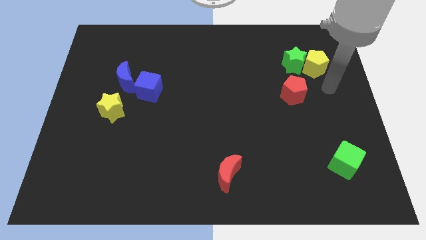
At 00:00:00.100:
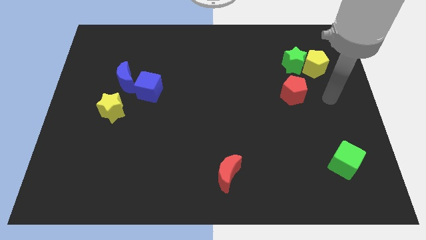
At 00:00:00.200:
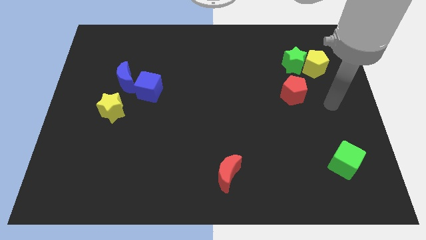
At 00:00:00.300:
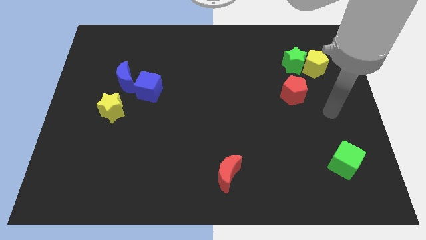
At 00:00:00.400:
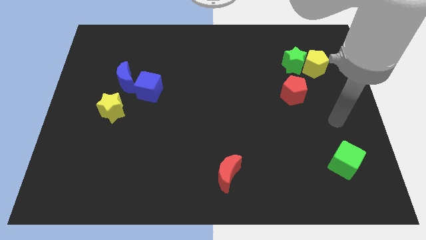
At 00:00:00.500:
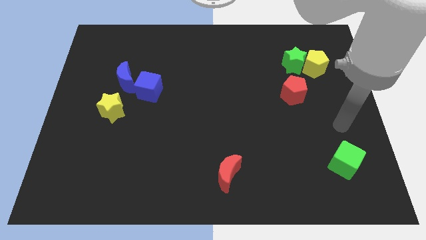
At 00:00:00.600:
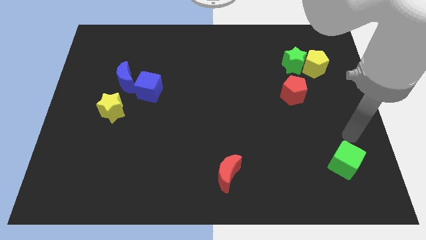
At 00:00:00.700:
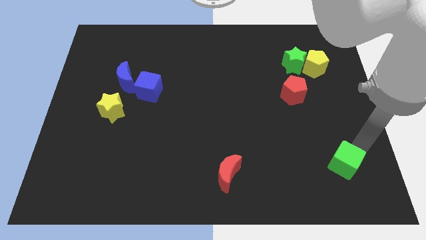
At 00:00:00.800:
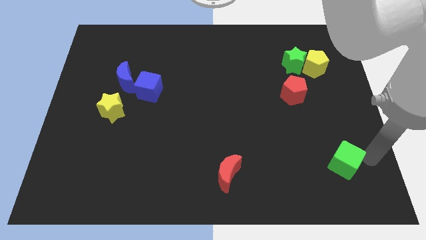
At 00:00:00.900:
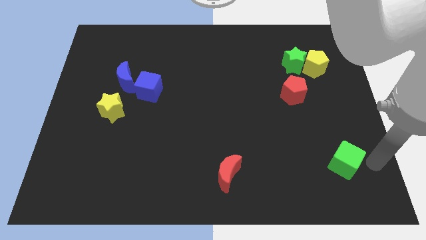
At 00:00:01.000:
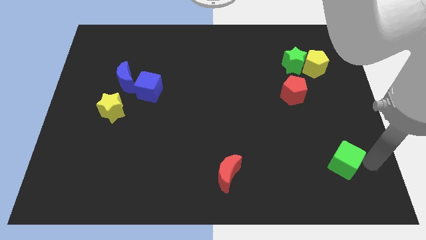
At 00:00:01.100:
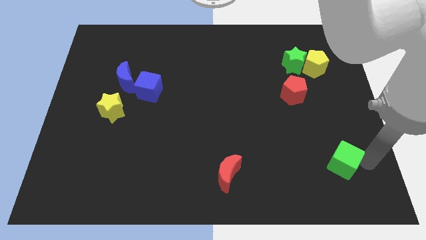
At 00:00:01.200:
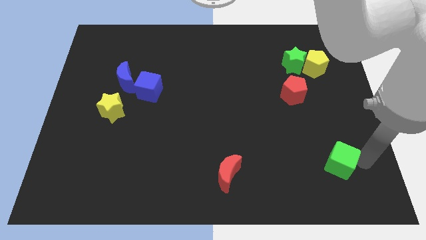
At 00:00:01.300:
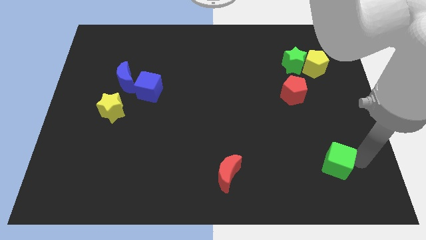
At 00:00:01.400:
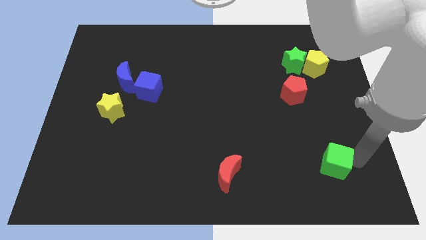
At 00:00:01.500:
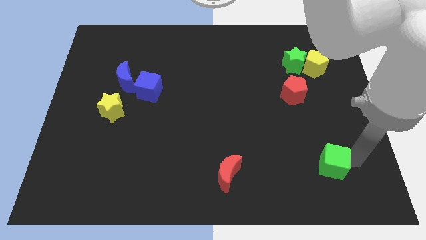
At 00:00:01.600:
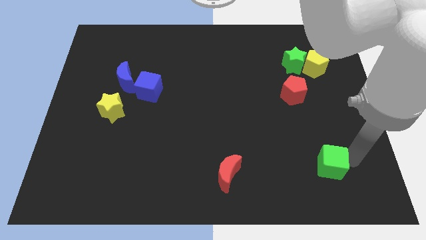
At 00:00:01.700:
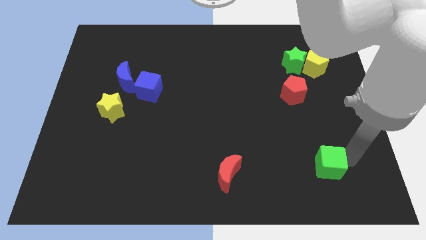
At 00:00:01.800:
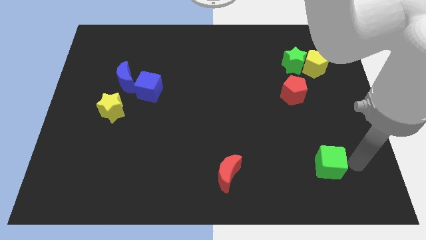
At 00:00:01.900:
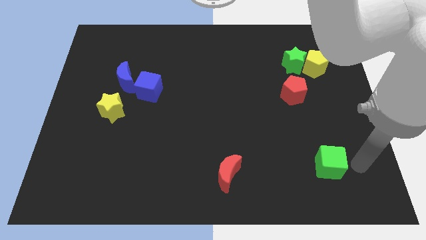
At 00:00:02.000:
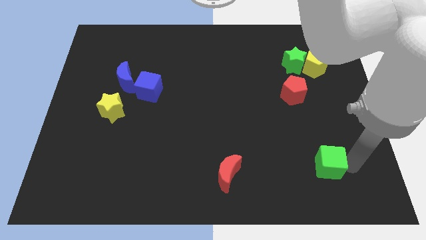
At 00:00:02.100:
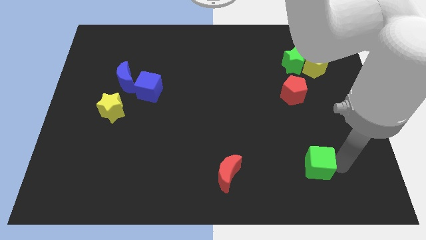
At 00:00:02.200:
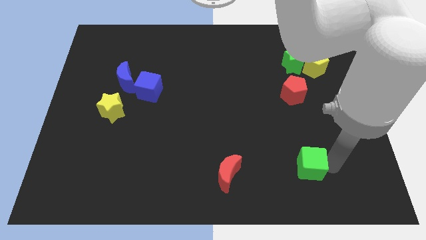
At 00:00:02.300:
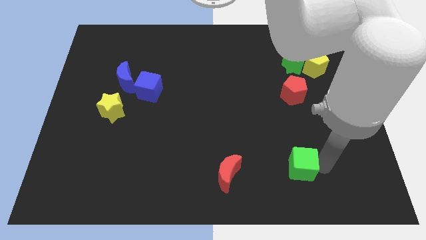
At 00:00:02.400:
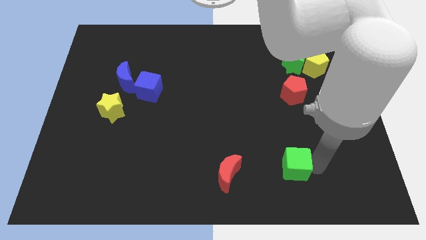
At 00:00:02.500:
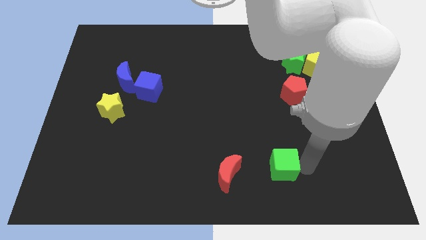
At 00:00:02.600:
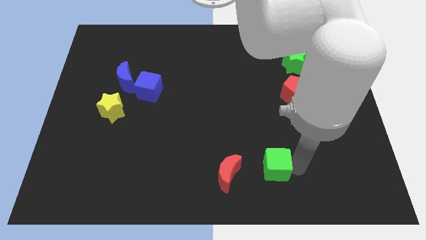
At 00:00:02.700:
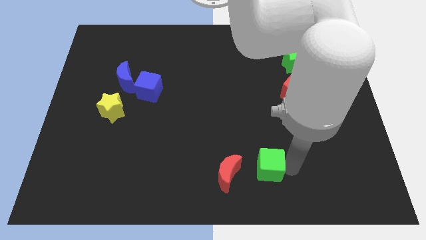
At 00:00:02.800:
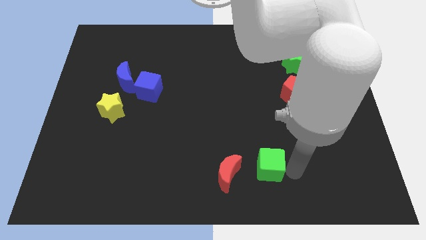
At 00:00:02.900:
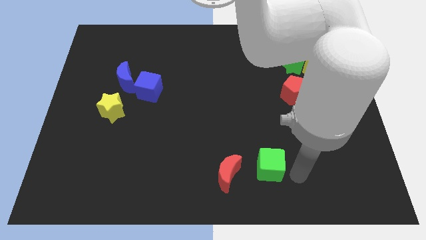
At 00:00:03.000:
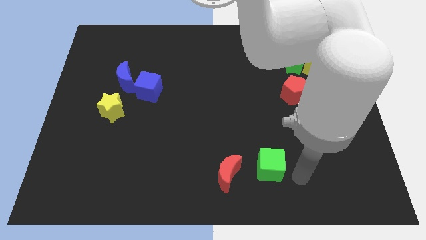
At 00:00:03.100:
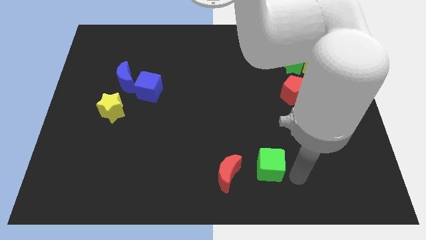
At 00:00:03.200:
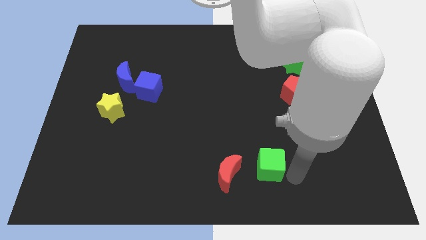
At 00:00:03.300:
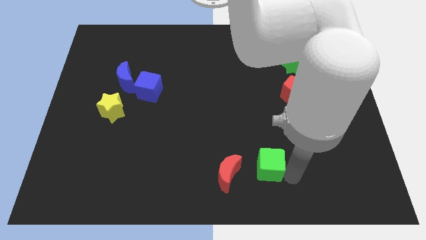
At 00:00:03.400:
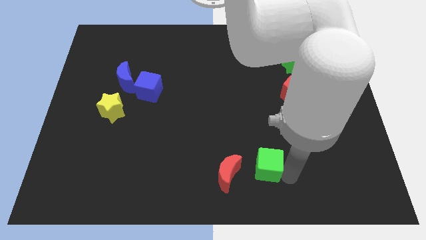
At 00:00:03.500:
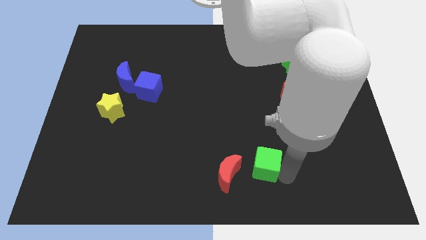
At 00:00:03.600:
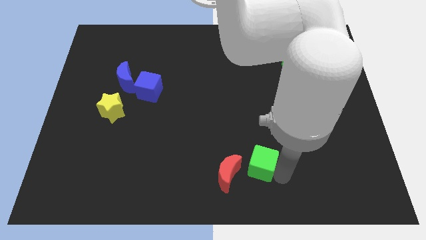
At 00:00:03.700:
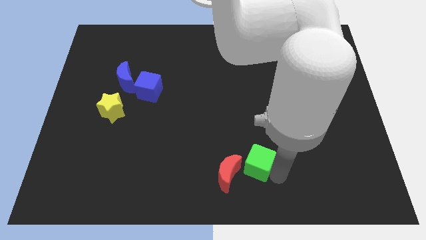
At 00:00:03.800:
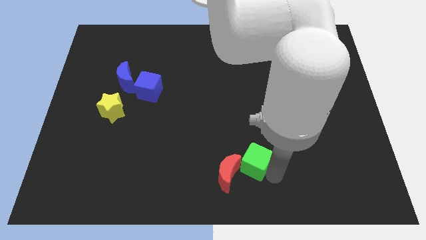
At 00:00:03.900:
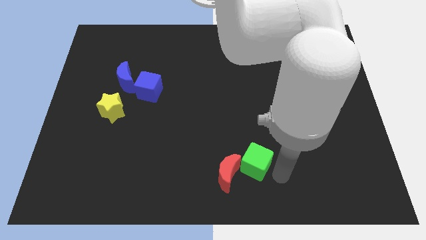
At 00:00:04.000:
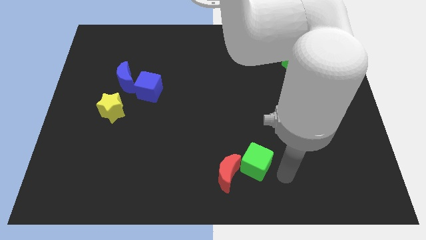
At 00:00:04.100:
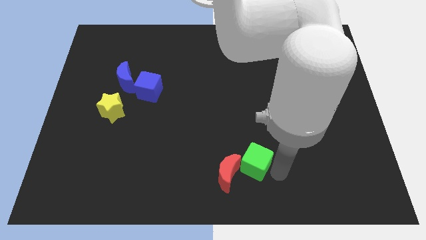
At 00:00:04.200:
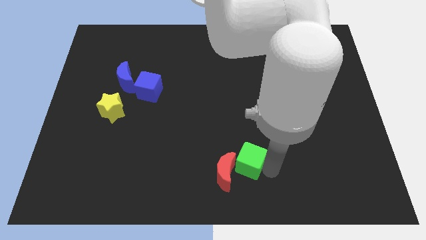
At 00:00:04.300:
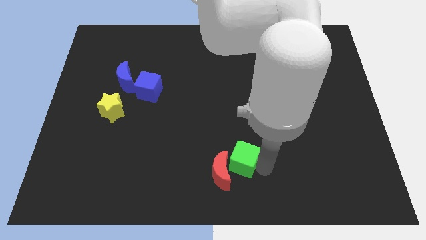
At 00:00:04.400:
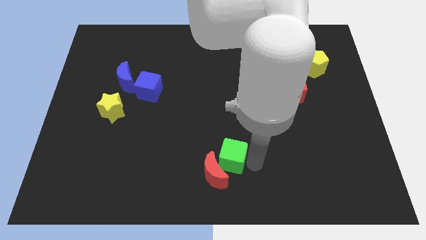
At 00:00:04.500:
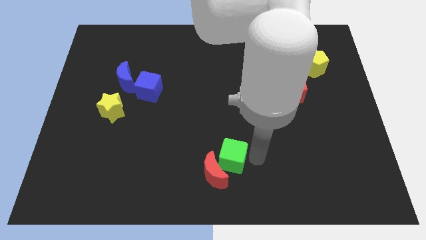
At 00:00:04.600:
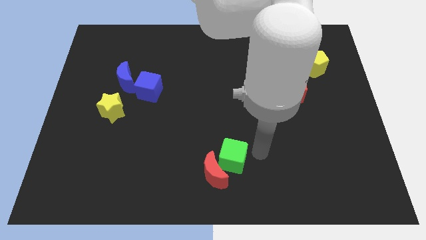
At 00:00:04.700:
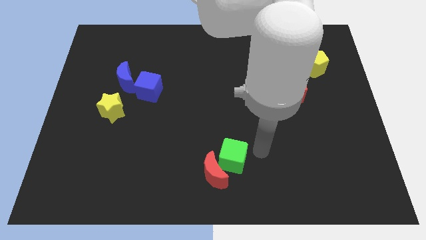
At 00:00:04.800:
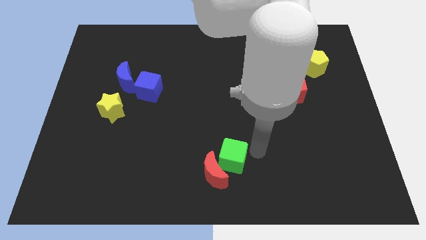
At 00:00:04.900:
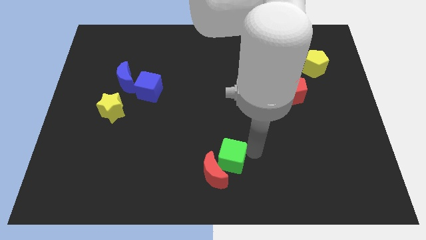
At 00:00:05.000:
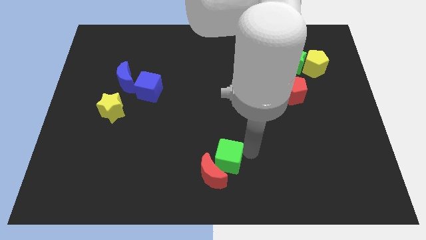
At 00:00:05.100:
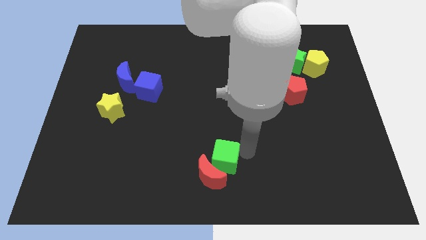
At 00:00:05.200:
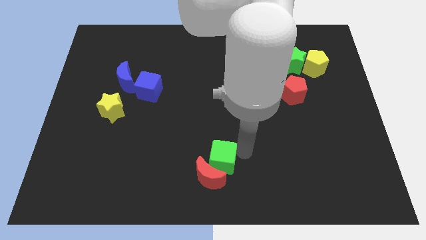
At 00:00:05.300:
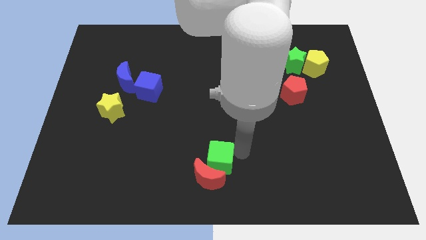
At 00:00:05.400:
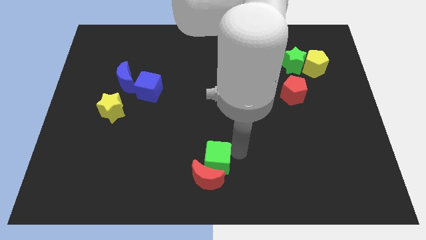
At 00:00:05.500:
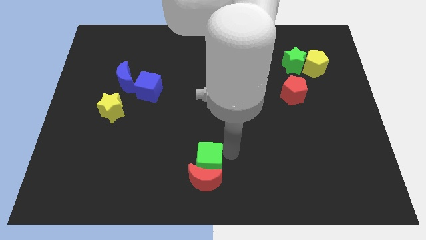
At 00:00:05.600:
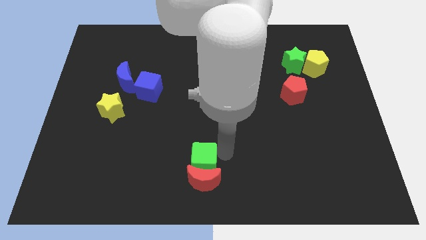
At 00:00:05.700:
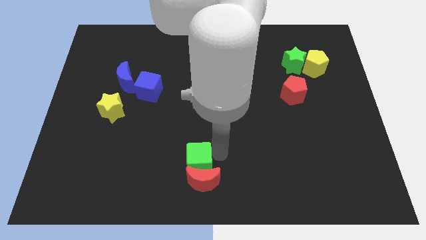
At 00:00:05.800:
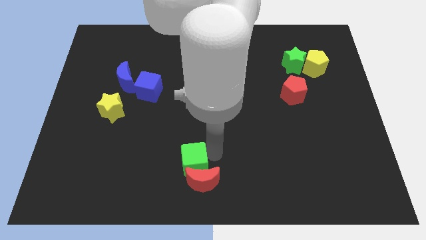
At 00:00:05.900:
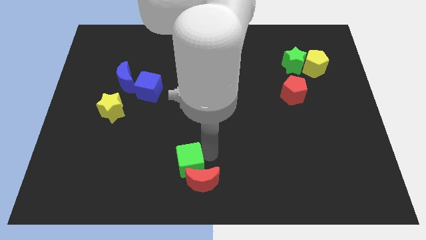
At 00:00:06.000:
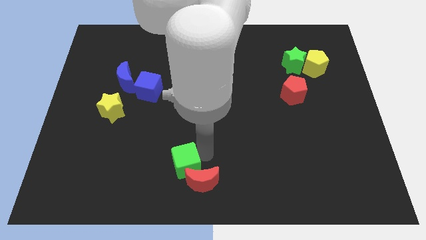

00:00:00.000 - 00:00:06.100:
push the green cube just left of the red moon

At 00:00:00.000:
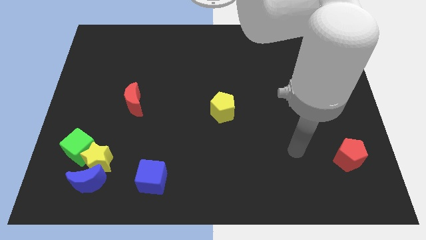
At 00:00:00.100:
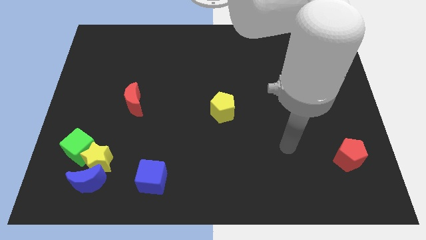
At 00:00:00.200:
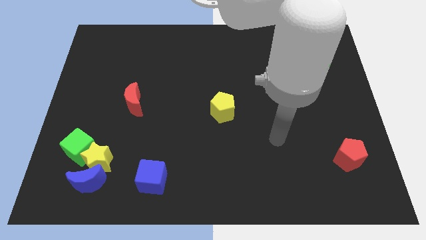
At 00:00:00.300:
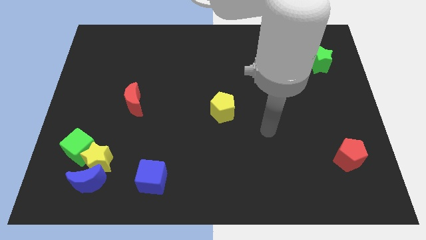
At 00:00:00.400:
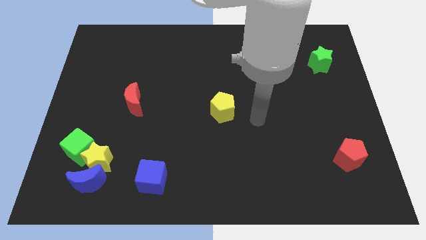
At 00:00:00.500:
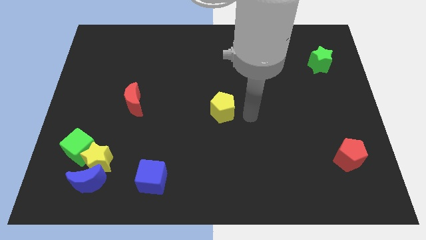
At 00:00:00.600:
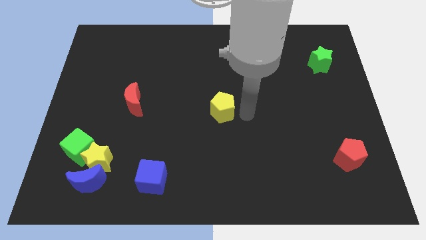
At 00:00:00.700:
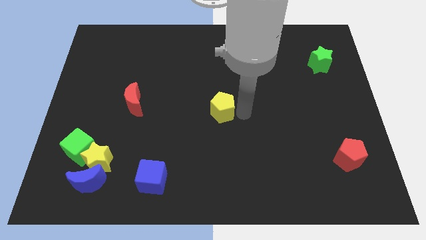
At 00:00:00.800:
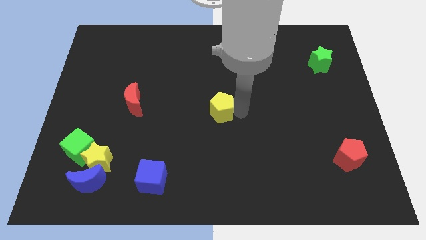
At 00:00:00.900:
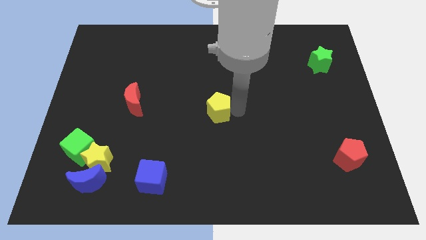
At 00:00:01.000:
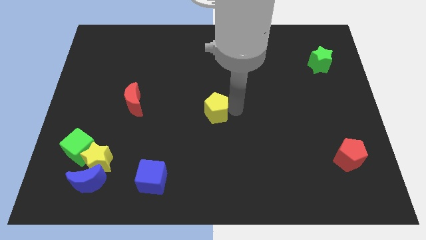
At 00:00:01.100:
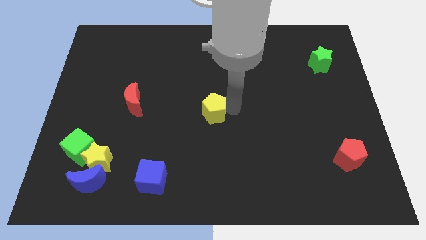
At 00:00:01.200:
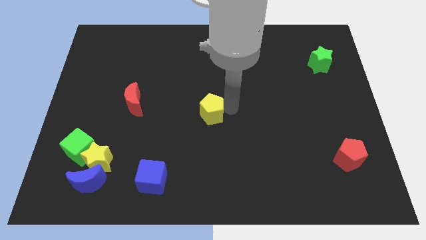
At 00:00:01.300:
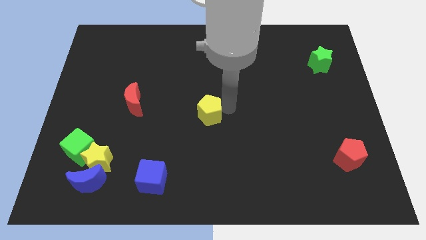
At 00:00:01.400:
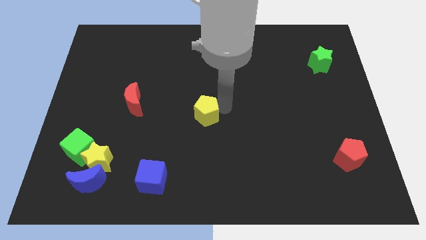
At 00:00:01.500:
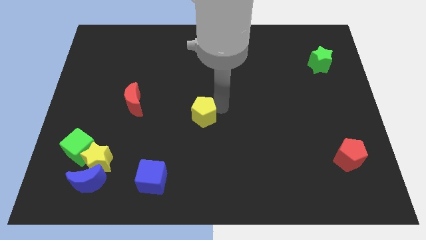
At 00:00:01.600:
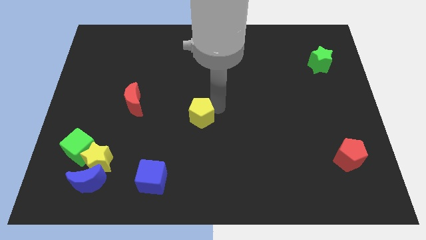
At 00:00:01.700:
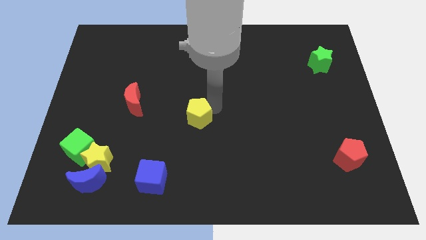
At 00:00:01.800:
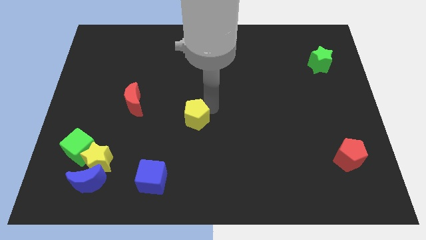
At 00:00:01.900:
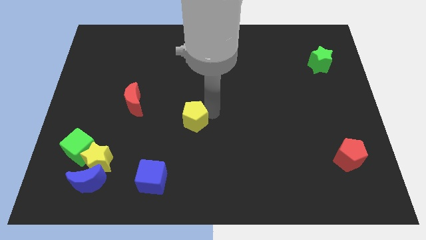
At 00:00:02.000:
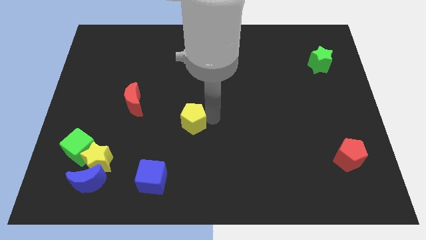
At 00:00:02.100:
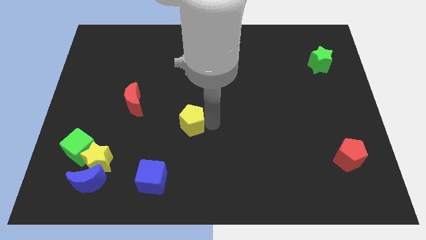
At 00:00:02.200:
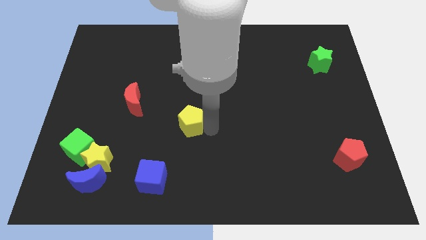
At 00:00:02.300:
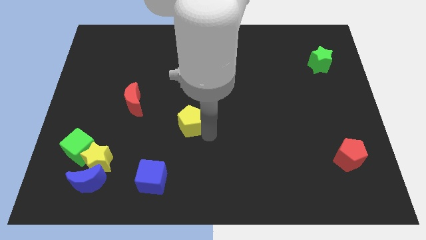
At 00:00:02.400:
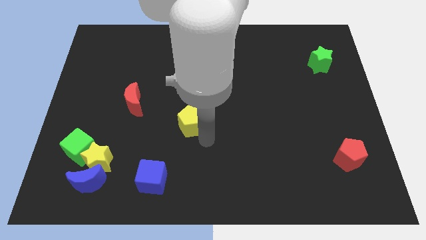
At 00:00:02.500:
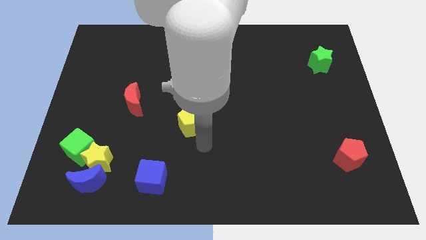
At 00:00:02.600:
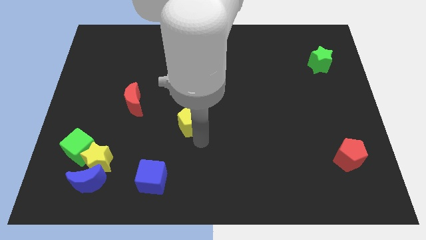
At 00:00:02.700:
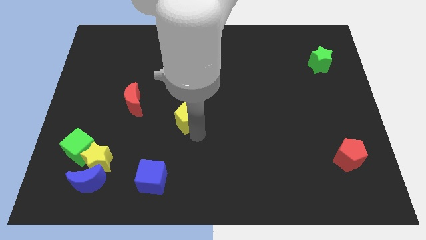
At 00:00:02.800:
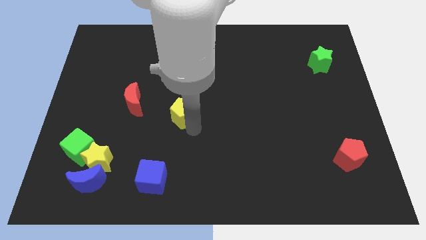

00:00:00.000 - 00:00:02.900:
push the yellow pentagon to the right side of the red moon
